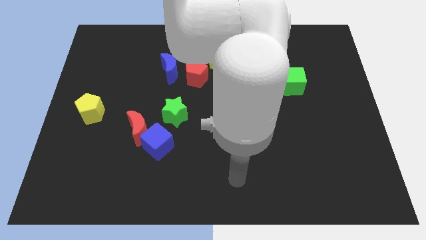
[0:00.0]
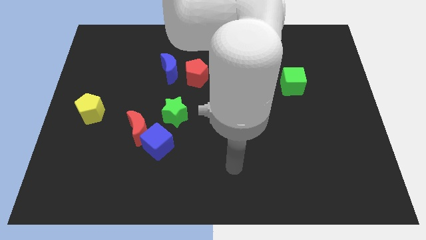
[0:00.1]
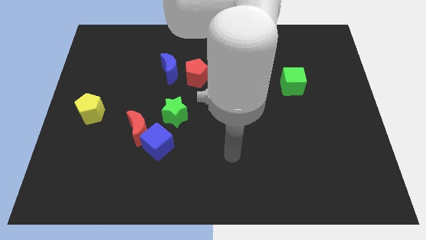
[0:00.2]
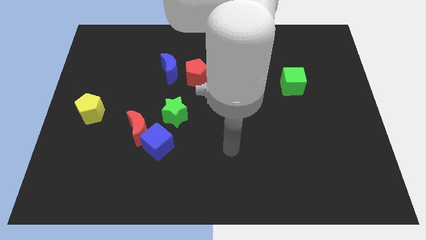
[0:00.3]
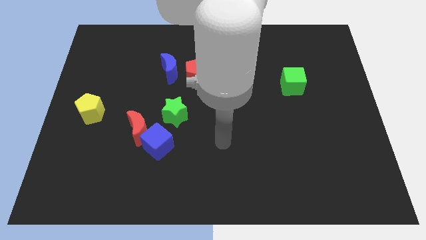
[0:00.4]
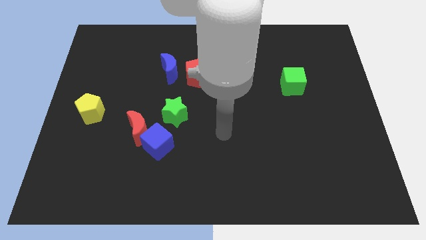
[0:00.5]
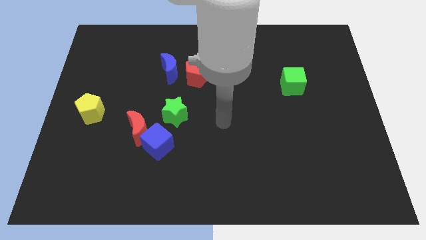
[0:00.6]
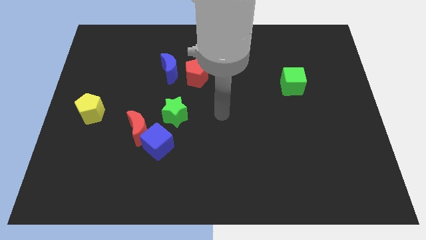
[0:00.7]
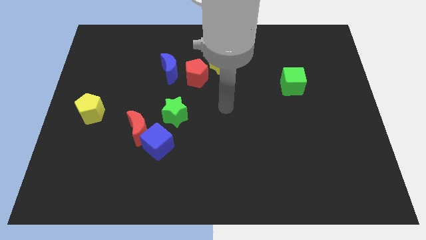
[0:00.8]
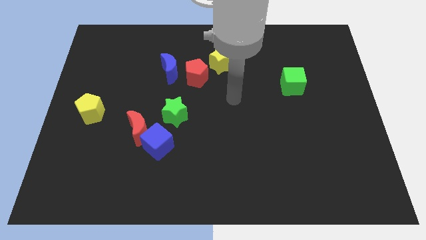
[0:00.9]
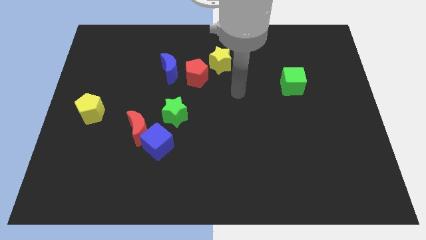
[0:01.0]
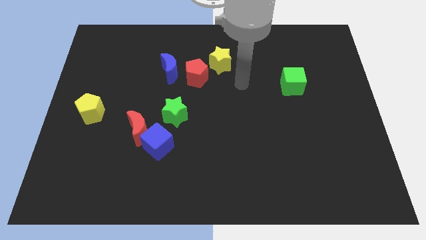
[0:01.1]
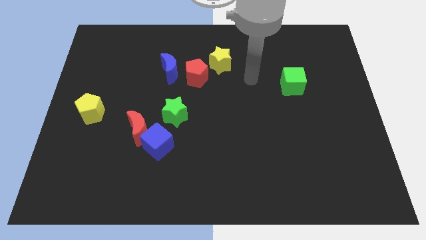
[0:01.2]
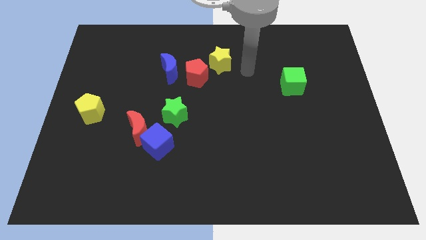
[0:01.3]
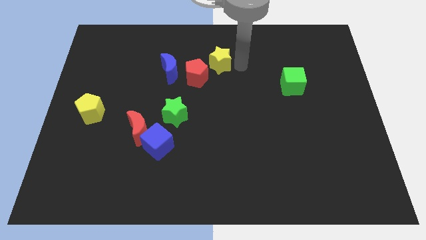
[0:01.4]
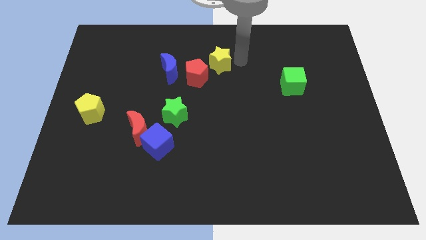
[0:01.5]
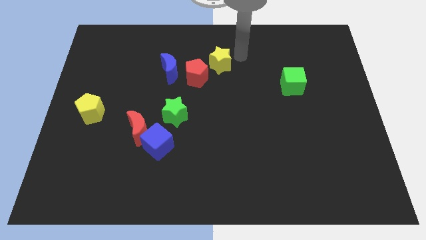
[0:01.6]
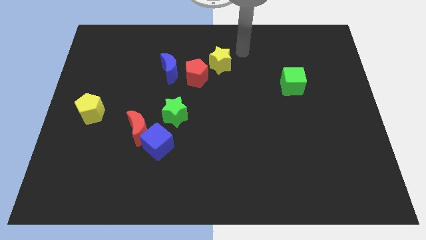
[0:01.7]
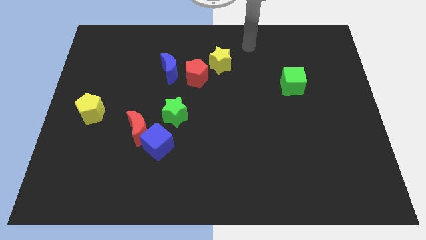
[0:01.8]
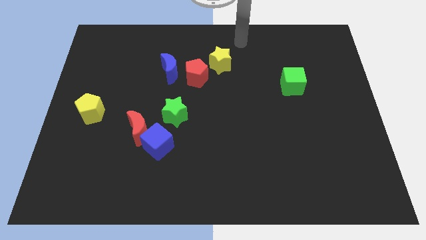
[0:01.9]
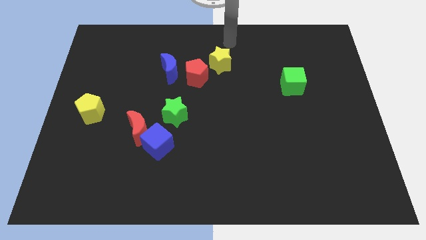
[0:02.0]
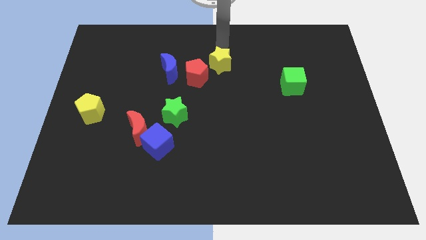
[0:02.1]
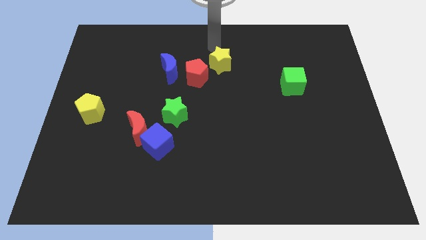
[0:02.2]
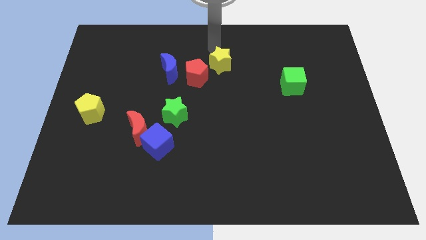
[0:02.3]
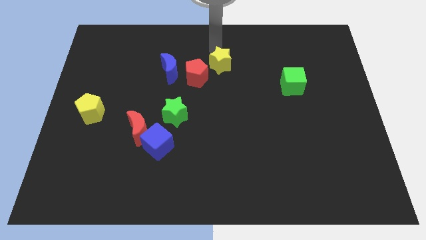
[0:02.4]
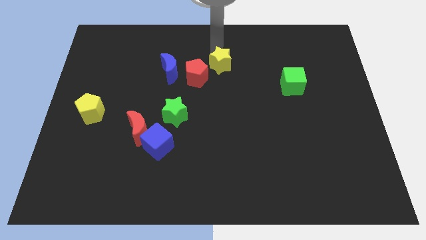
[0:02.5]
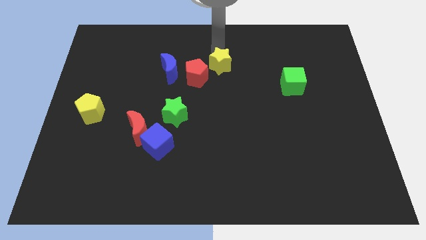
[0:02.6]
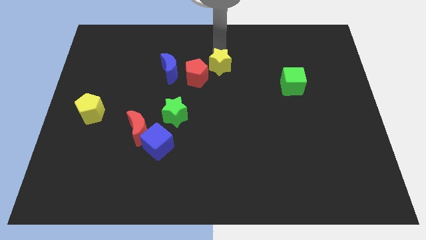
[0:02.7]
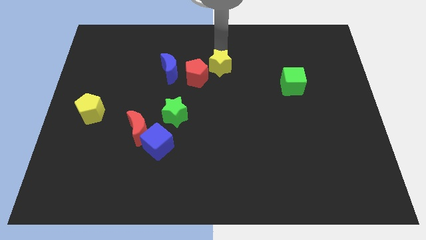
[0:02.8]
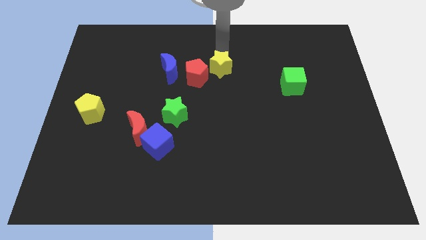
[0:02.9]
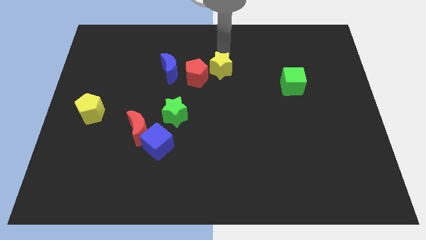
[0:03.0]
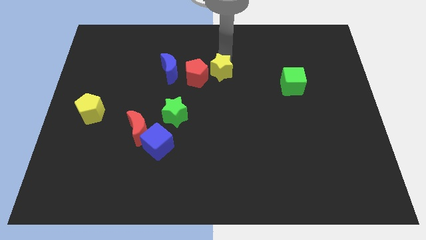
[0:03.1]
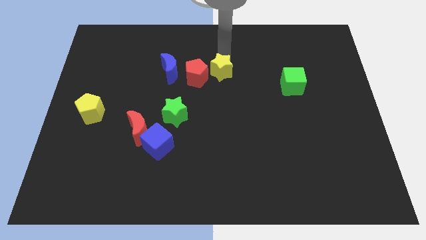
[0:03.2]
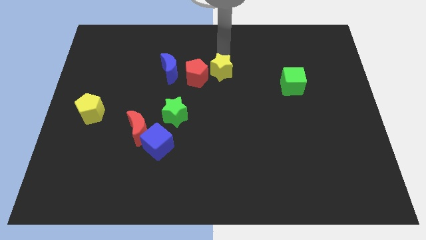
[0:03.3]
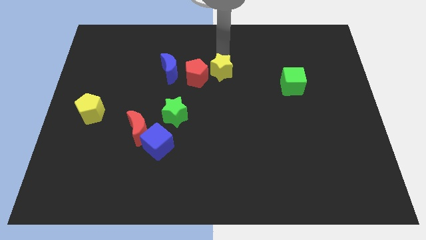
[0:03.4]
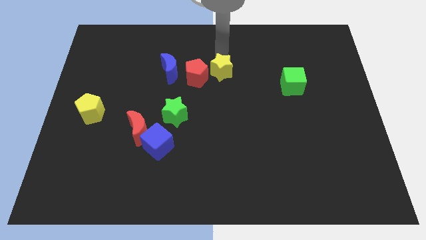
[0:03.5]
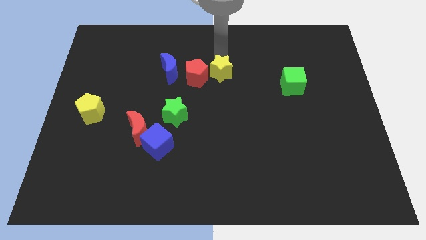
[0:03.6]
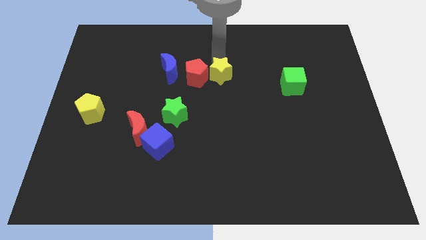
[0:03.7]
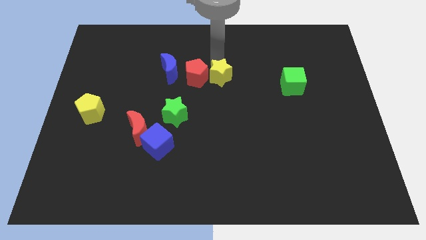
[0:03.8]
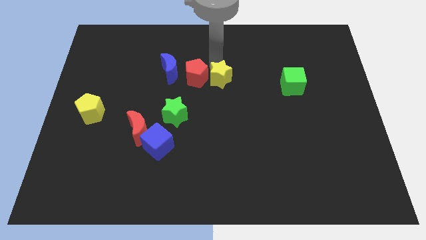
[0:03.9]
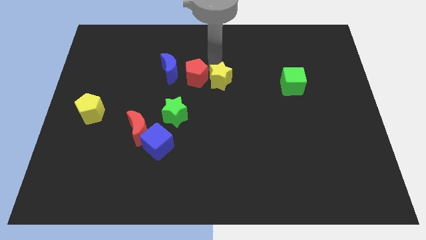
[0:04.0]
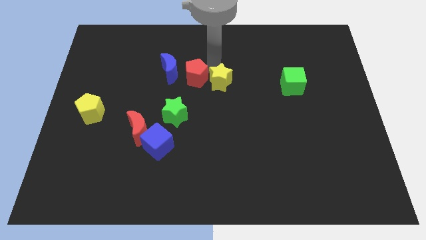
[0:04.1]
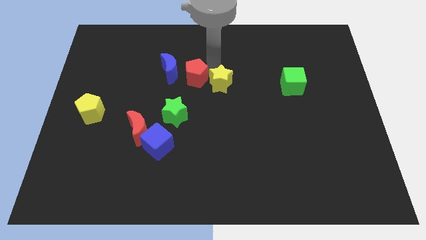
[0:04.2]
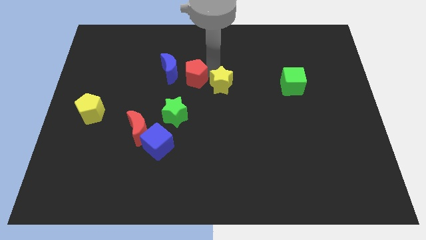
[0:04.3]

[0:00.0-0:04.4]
push the yellow star a bit down

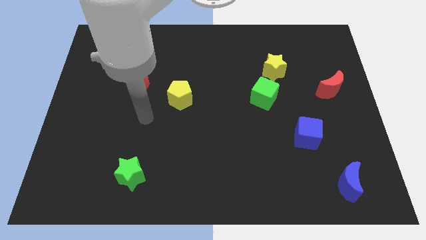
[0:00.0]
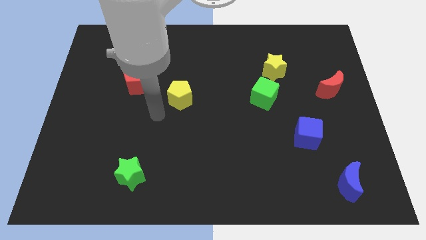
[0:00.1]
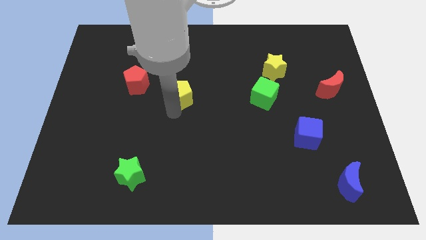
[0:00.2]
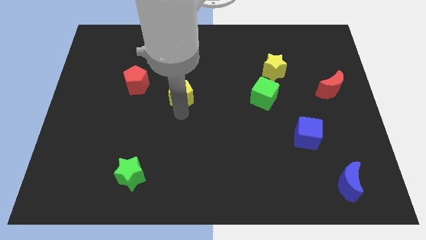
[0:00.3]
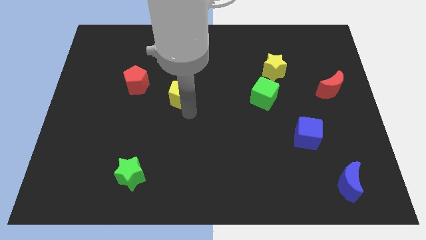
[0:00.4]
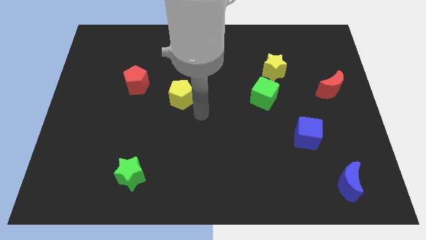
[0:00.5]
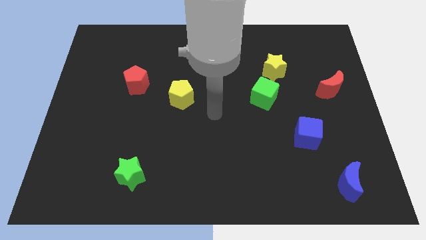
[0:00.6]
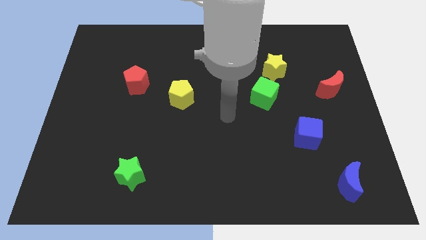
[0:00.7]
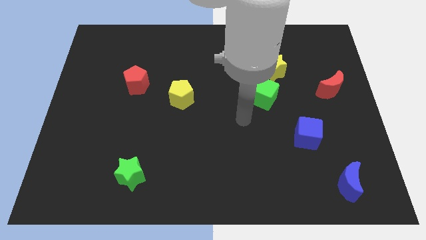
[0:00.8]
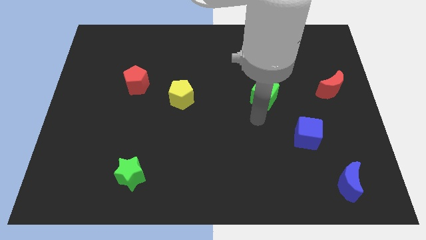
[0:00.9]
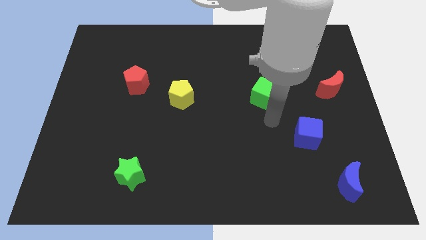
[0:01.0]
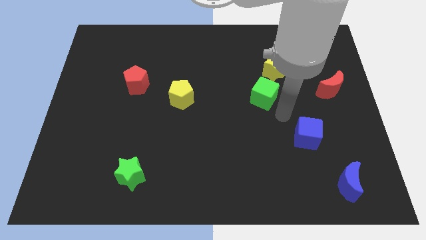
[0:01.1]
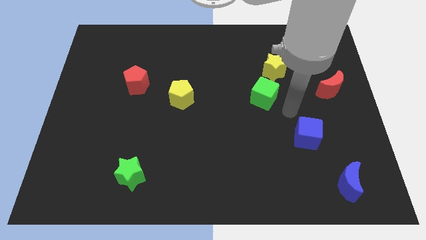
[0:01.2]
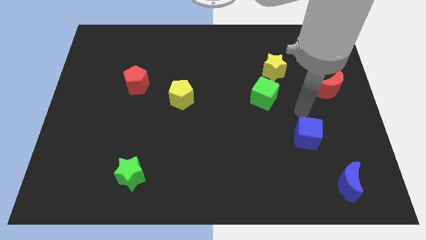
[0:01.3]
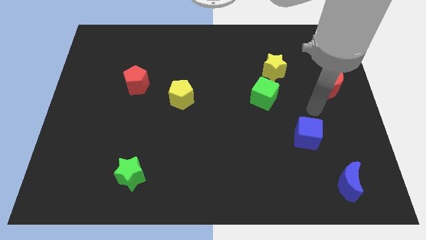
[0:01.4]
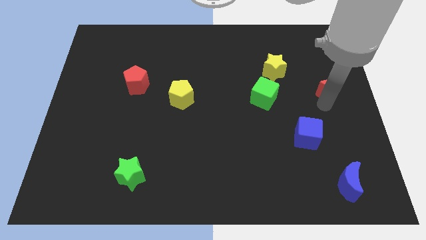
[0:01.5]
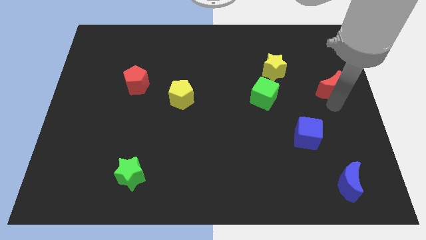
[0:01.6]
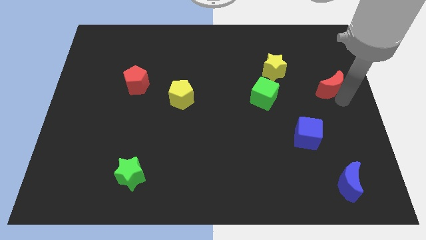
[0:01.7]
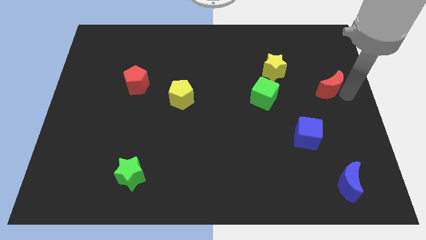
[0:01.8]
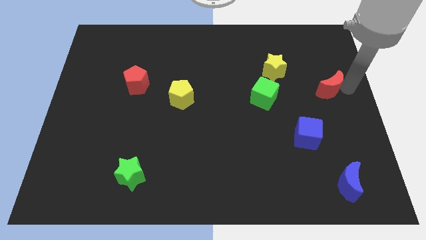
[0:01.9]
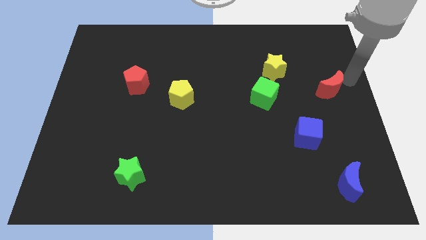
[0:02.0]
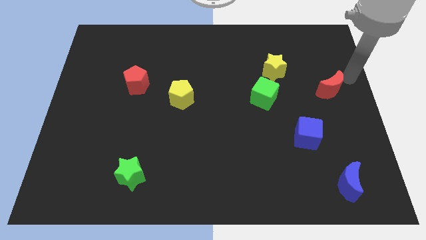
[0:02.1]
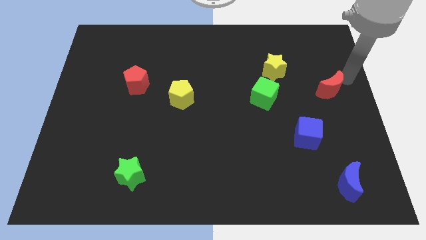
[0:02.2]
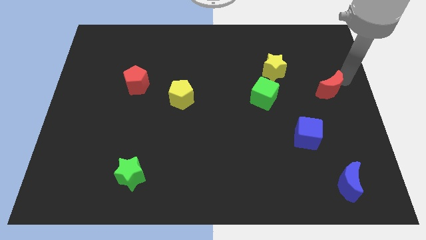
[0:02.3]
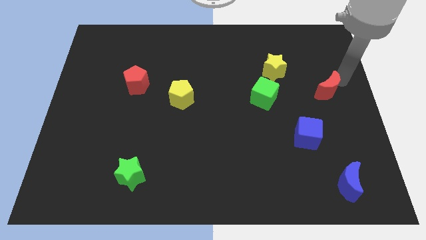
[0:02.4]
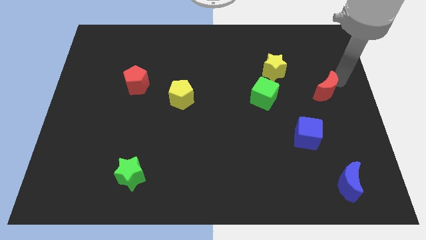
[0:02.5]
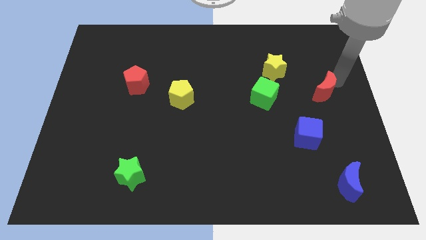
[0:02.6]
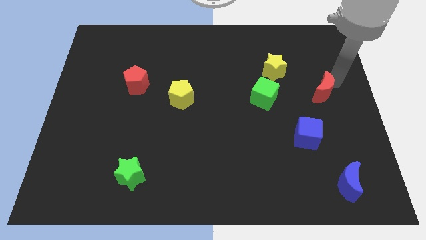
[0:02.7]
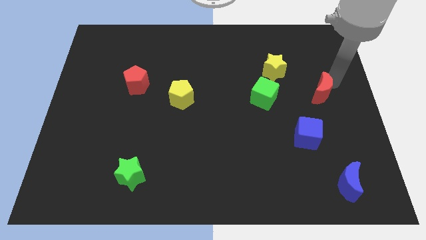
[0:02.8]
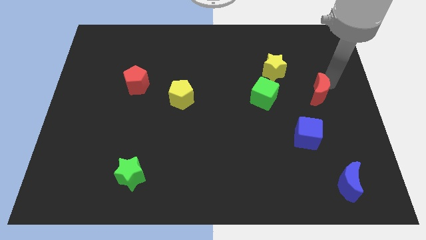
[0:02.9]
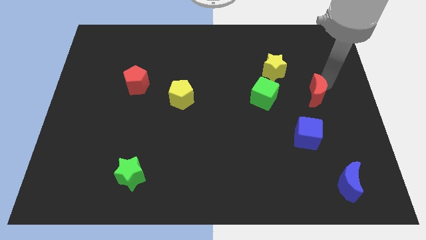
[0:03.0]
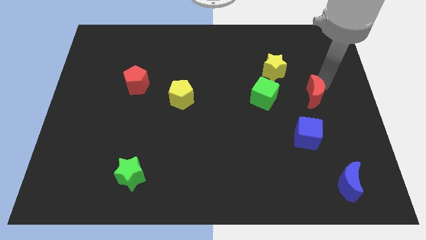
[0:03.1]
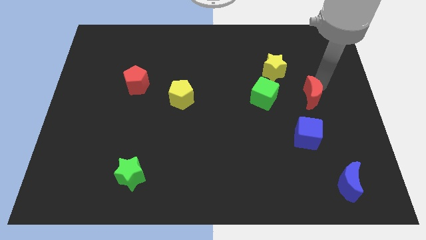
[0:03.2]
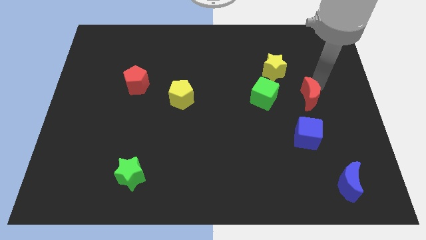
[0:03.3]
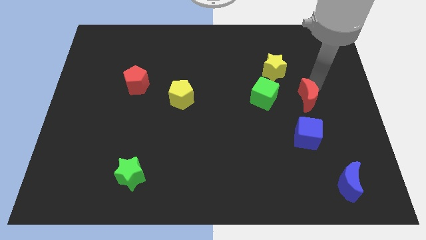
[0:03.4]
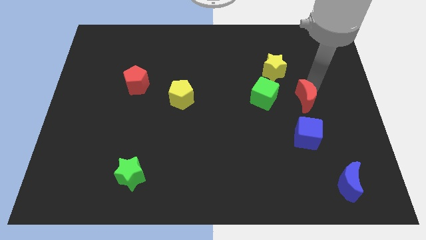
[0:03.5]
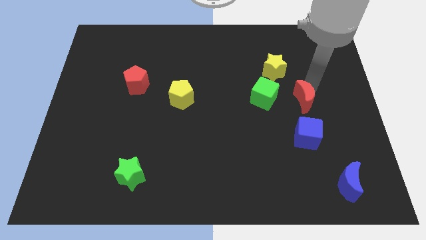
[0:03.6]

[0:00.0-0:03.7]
slightly slide the red moon diagonally downwards and left

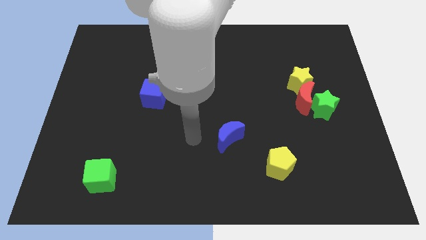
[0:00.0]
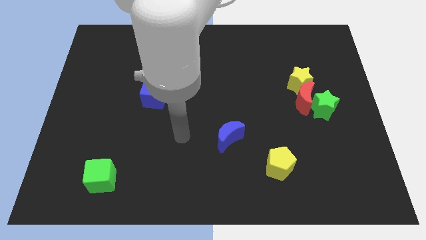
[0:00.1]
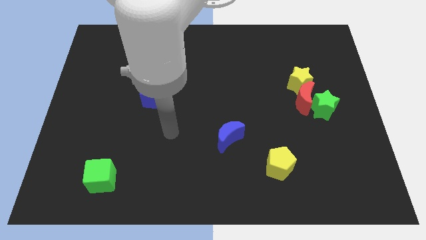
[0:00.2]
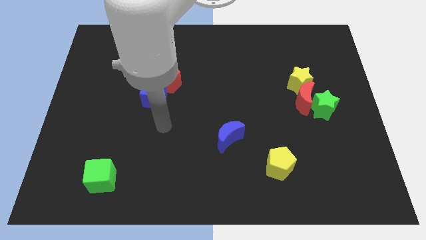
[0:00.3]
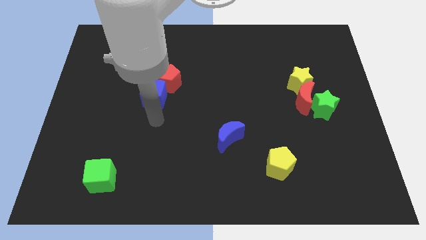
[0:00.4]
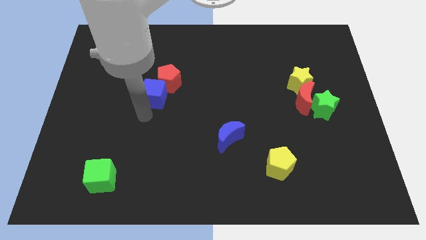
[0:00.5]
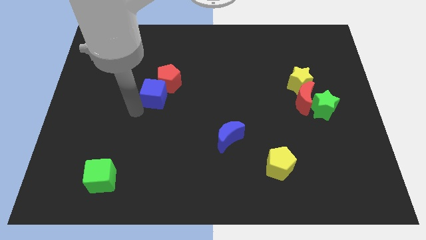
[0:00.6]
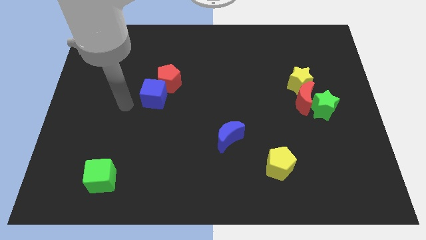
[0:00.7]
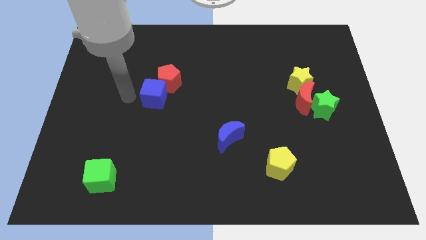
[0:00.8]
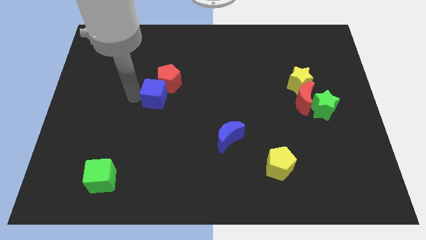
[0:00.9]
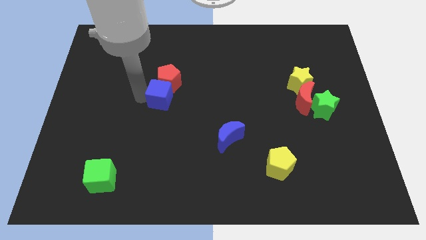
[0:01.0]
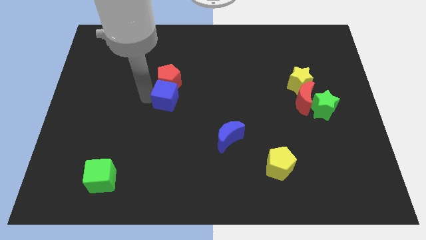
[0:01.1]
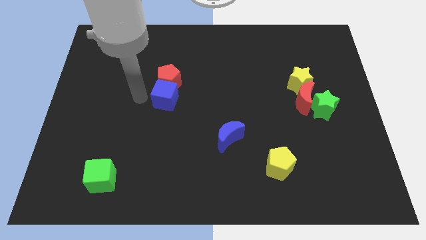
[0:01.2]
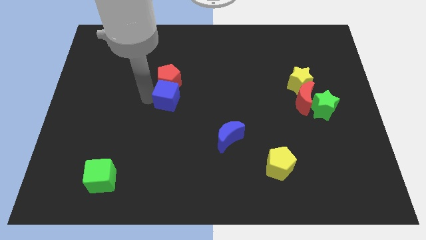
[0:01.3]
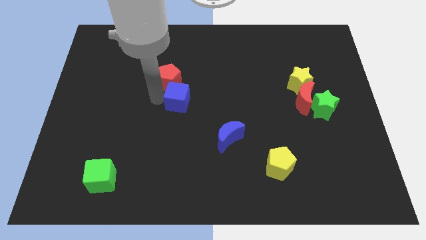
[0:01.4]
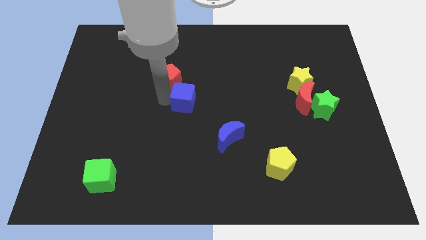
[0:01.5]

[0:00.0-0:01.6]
move the blue cube right somewhat
